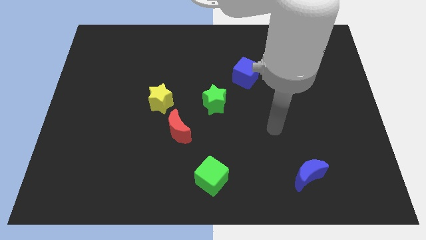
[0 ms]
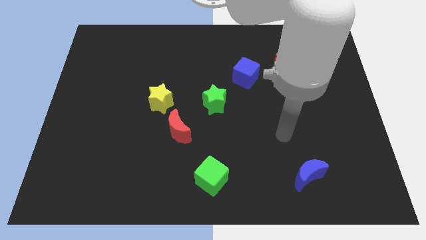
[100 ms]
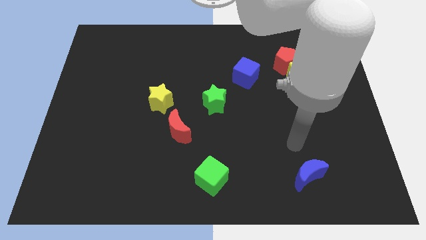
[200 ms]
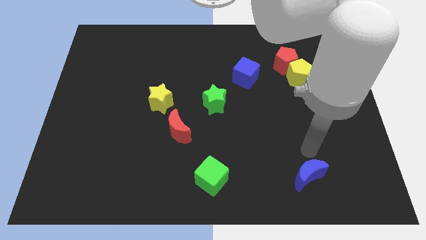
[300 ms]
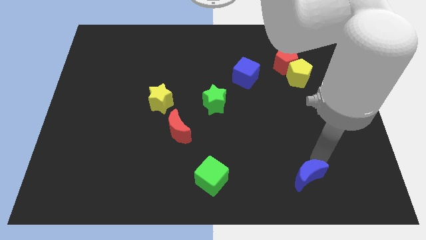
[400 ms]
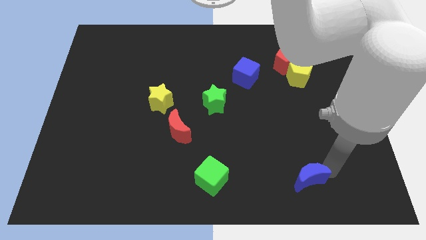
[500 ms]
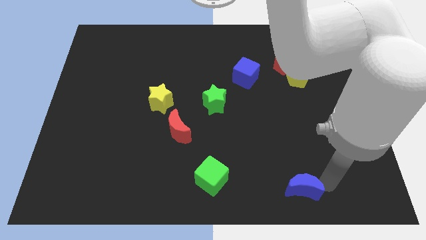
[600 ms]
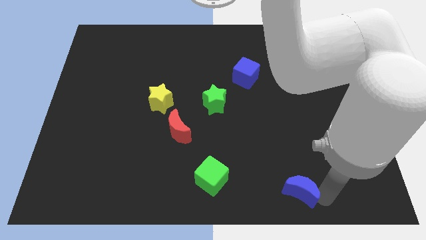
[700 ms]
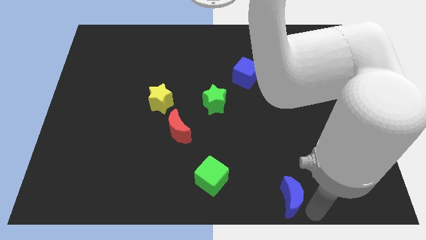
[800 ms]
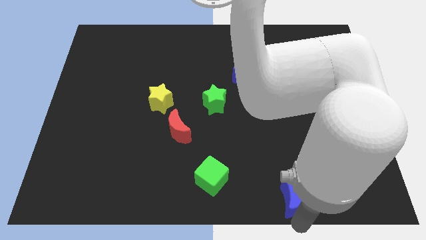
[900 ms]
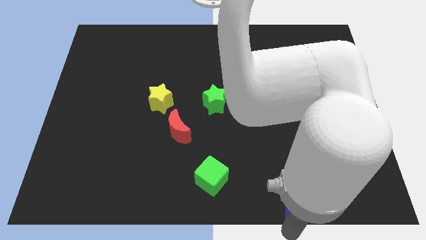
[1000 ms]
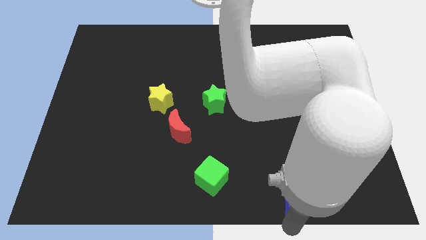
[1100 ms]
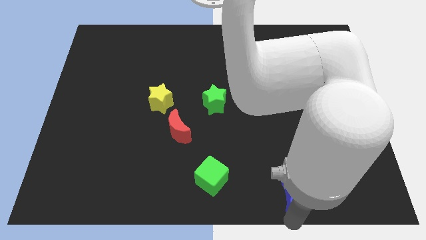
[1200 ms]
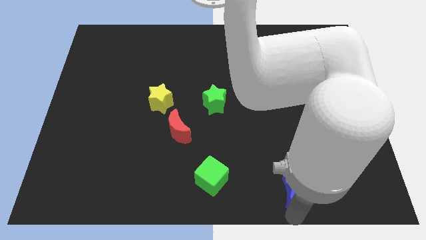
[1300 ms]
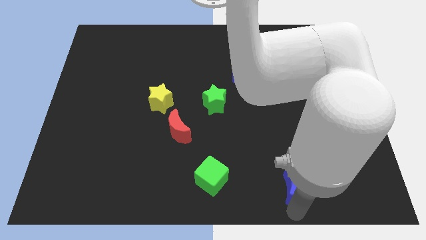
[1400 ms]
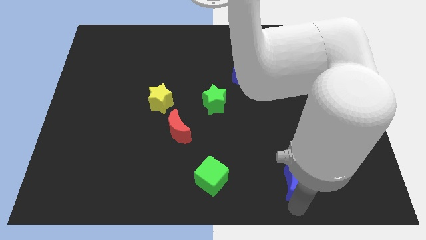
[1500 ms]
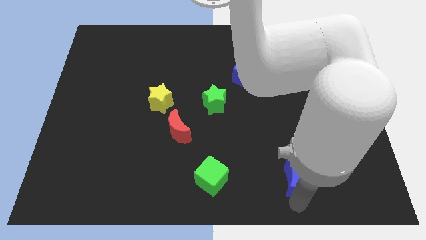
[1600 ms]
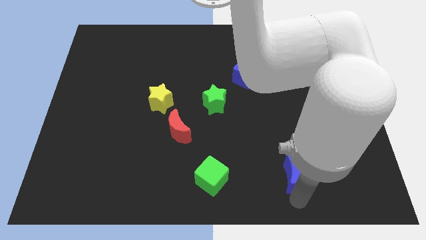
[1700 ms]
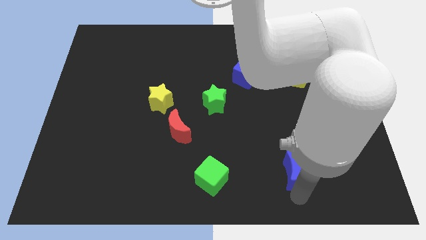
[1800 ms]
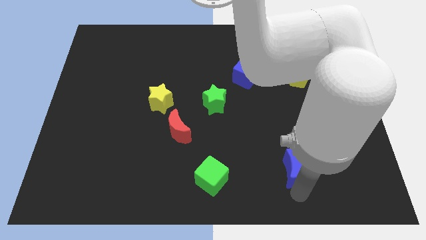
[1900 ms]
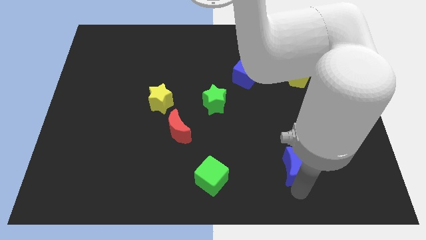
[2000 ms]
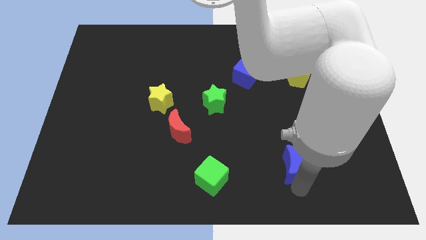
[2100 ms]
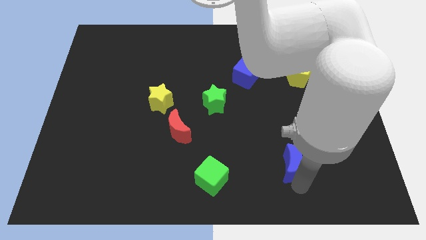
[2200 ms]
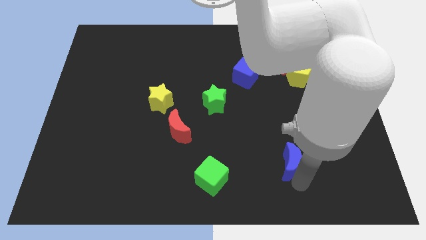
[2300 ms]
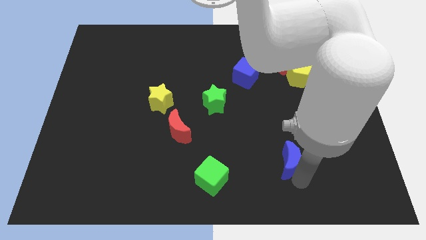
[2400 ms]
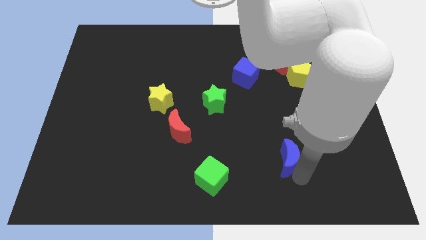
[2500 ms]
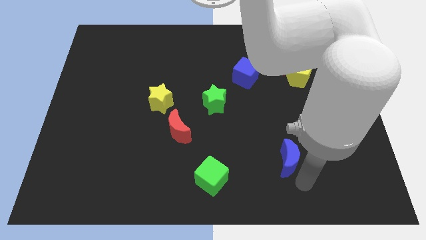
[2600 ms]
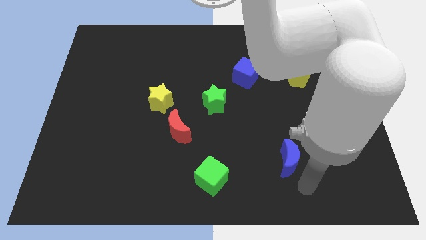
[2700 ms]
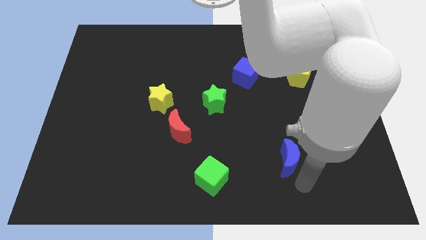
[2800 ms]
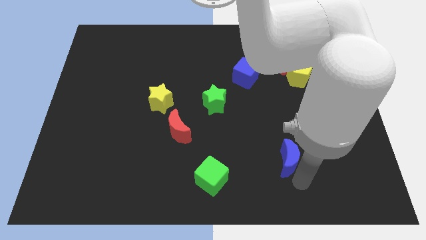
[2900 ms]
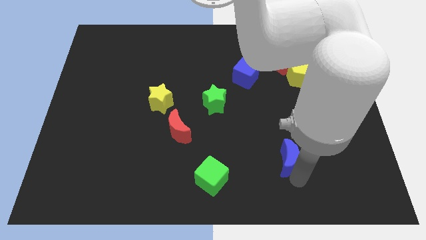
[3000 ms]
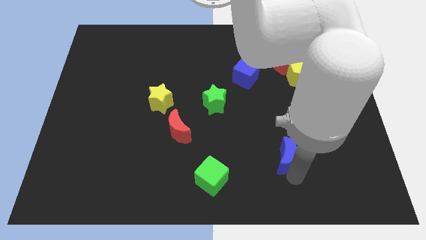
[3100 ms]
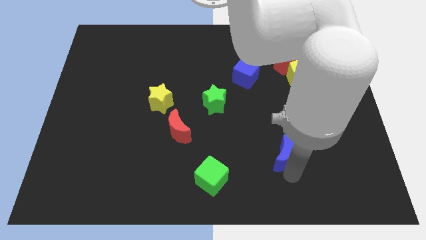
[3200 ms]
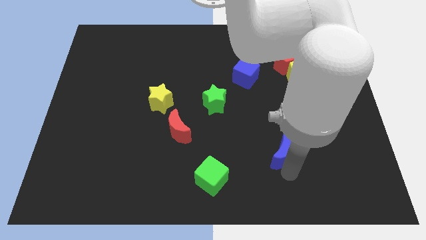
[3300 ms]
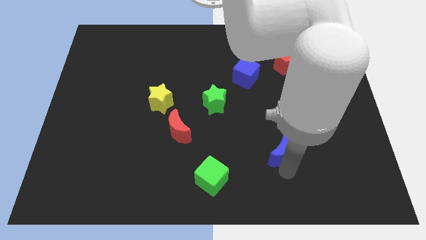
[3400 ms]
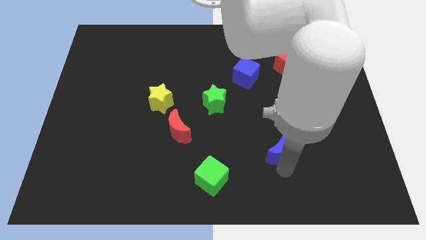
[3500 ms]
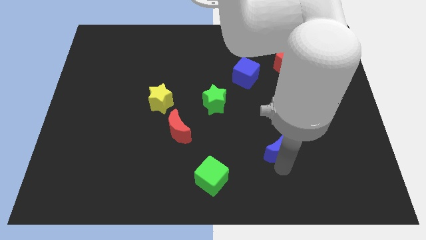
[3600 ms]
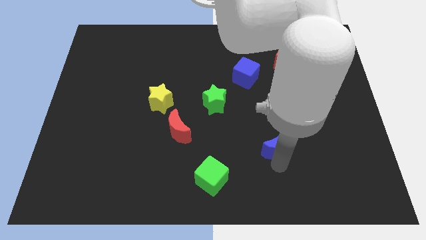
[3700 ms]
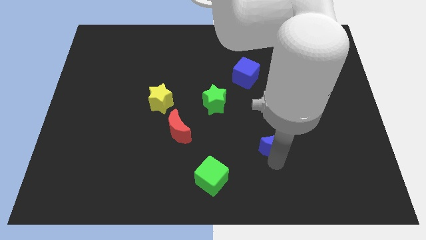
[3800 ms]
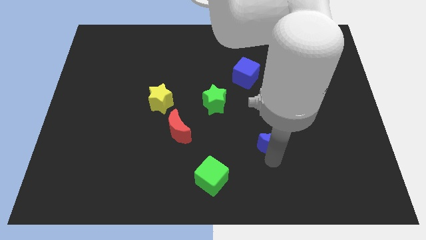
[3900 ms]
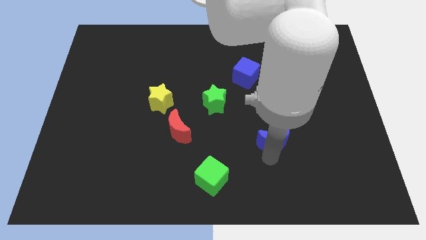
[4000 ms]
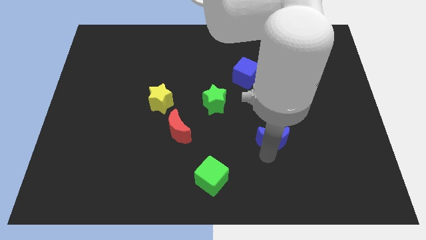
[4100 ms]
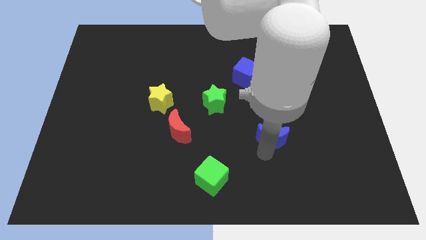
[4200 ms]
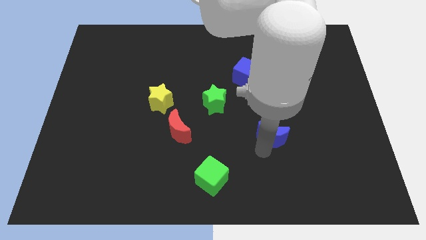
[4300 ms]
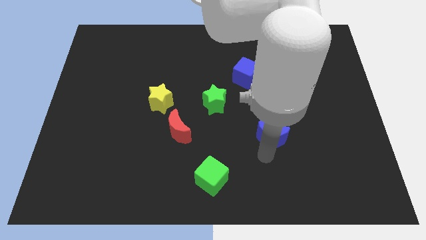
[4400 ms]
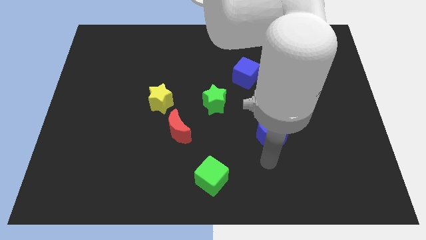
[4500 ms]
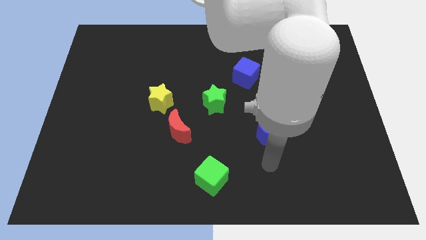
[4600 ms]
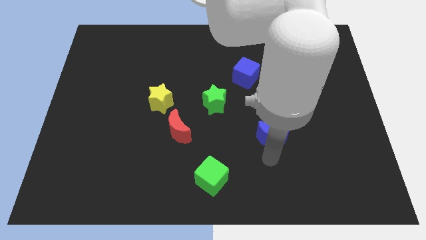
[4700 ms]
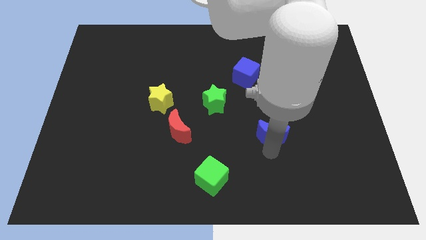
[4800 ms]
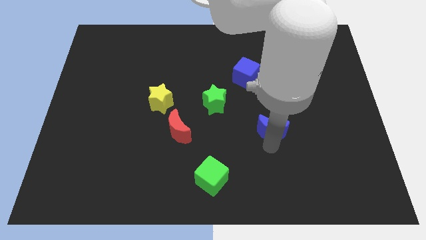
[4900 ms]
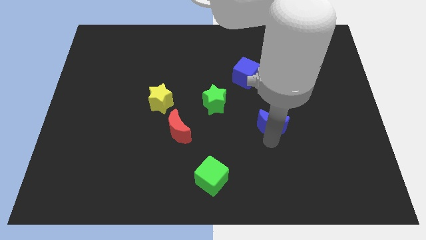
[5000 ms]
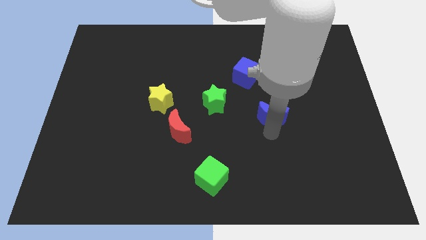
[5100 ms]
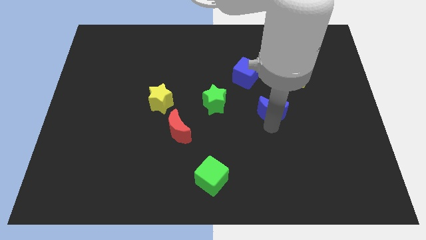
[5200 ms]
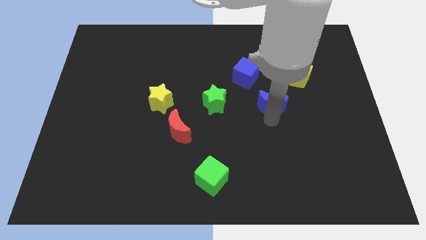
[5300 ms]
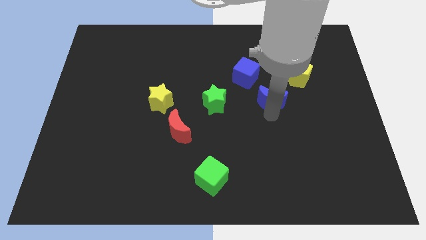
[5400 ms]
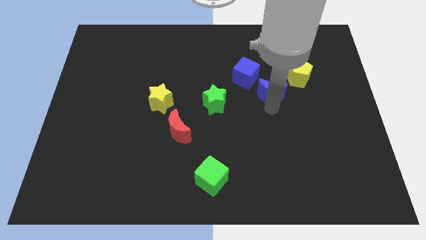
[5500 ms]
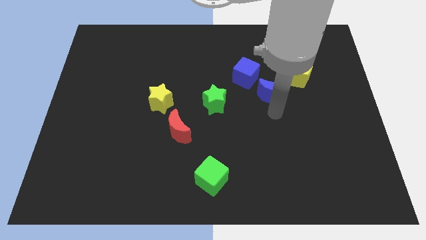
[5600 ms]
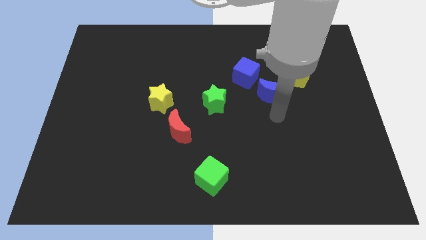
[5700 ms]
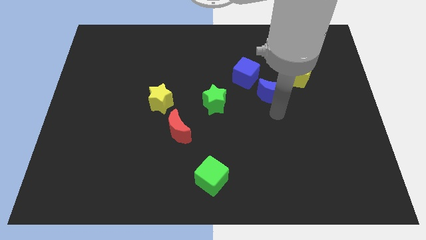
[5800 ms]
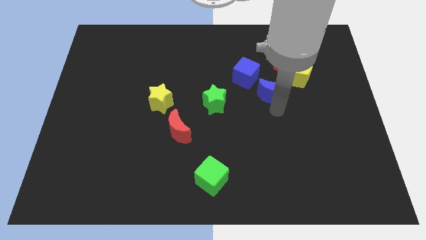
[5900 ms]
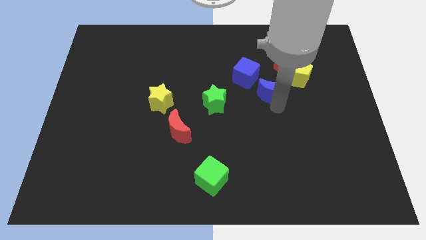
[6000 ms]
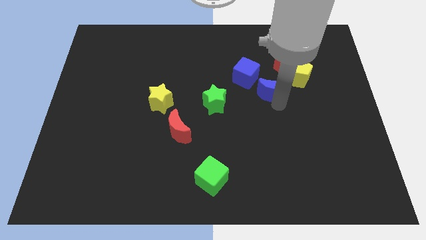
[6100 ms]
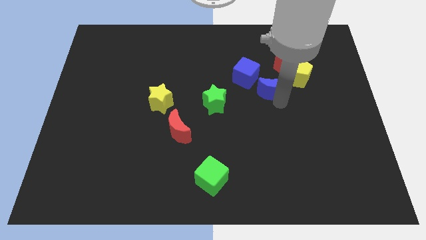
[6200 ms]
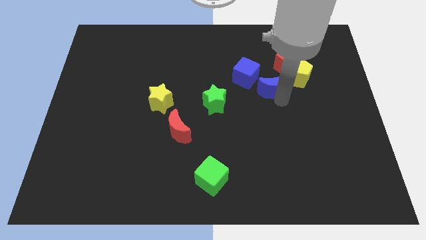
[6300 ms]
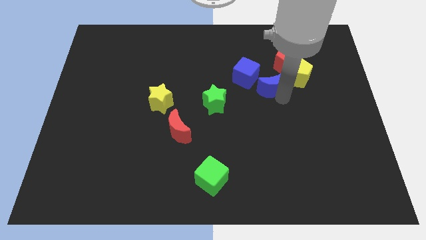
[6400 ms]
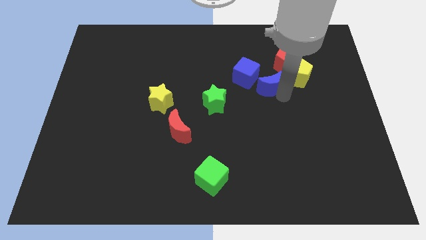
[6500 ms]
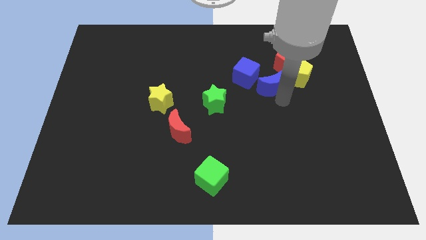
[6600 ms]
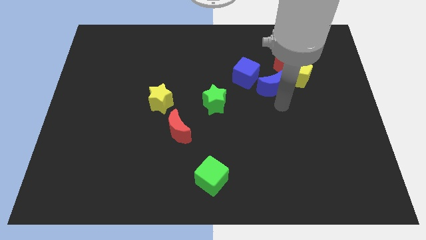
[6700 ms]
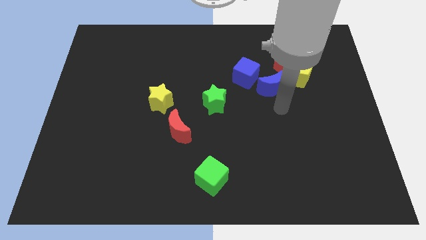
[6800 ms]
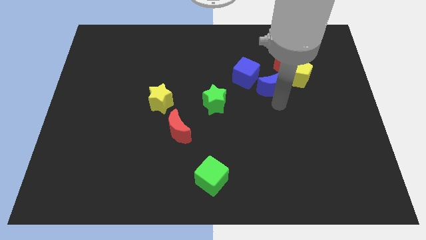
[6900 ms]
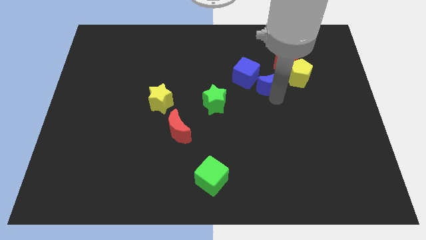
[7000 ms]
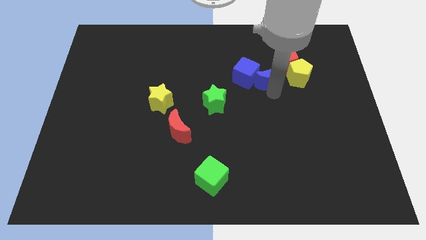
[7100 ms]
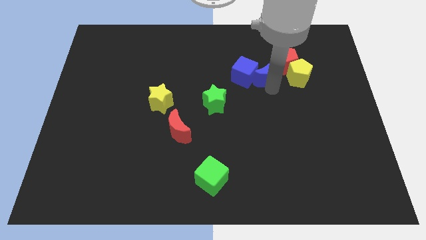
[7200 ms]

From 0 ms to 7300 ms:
move the blue moon to the left of the red pentagon
